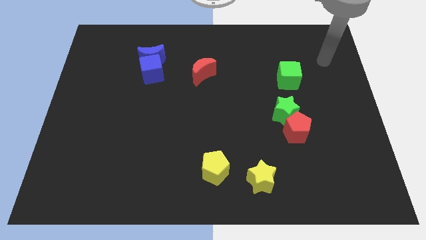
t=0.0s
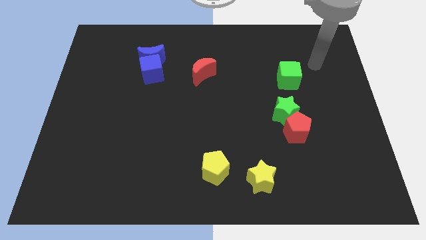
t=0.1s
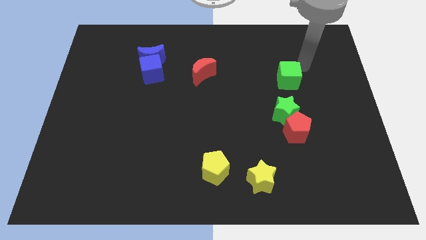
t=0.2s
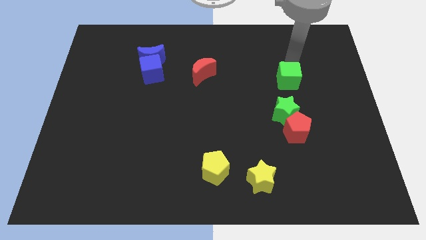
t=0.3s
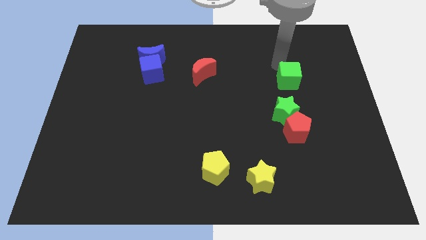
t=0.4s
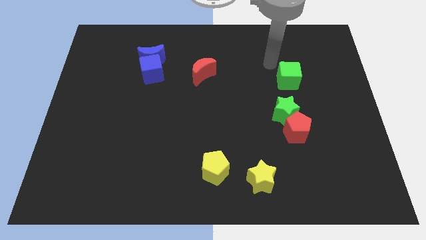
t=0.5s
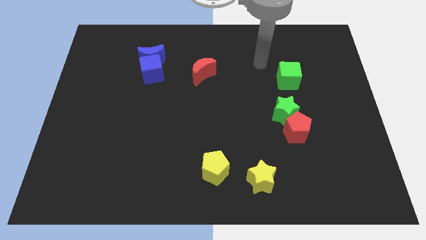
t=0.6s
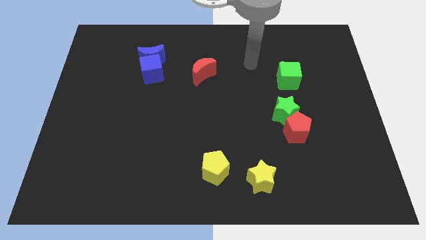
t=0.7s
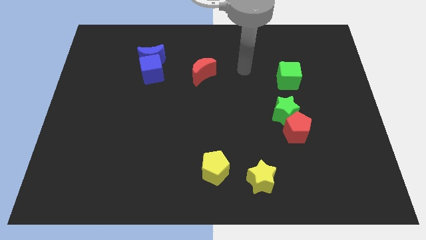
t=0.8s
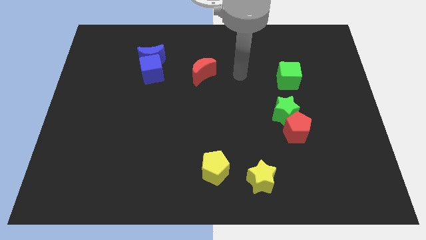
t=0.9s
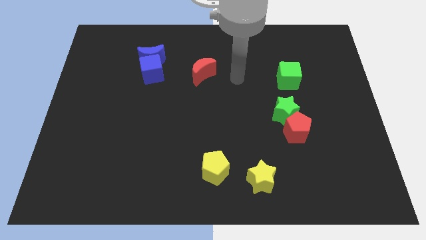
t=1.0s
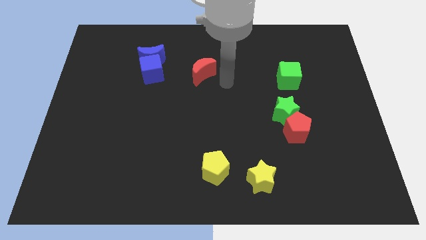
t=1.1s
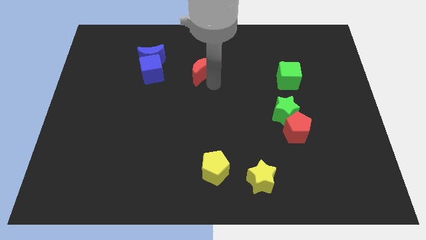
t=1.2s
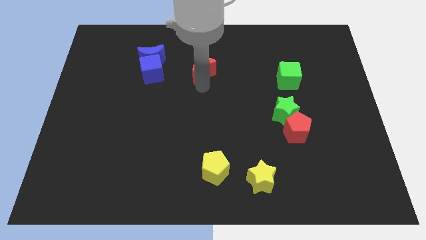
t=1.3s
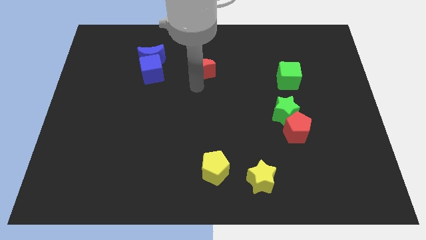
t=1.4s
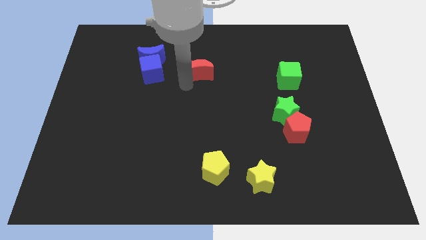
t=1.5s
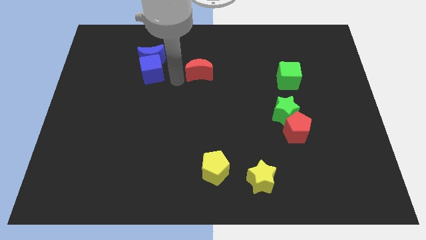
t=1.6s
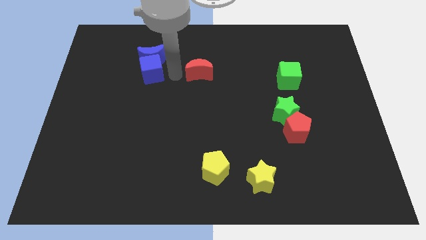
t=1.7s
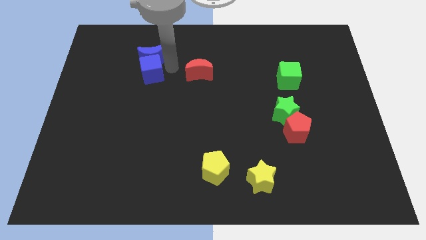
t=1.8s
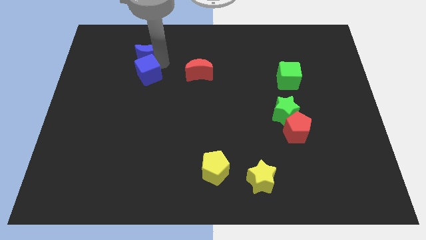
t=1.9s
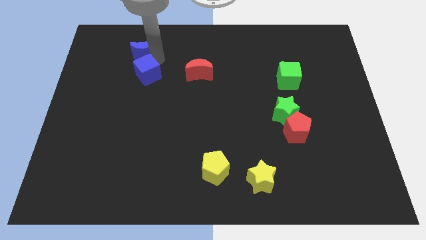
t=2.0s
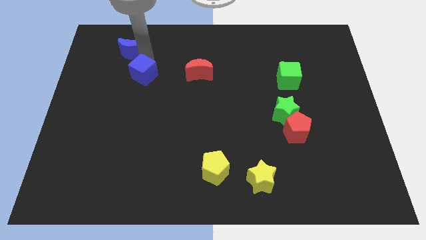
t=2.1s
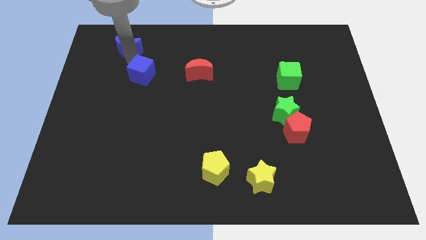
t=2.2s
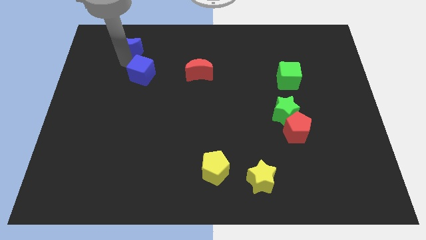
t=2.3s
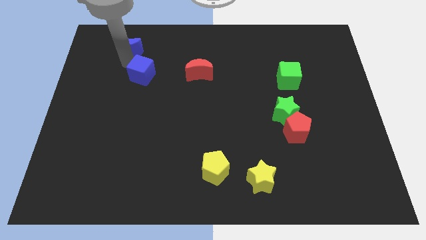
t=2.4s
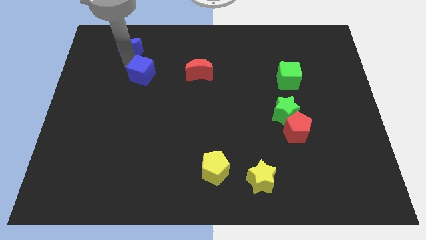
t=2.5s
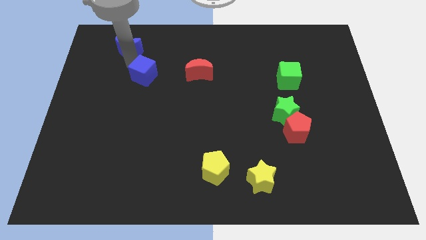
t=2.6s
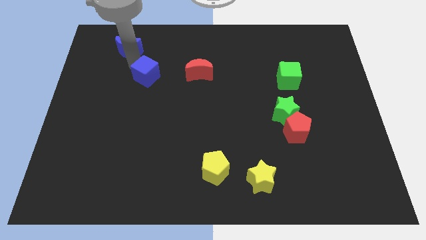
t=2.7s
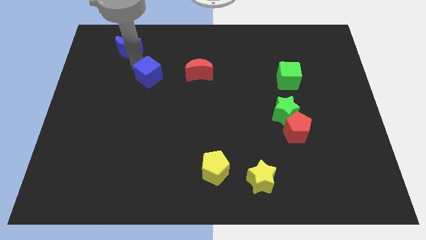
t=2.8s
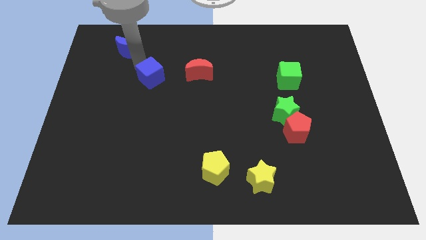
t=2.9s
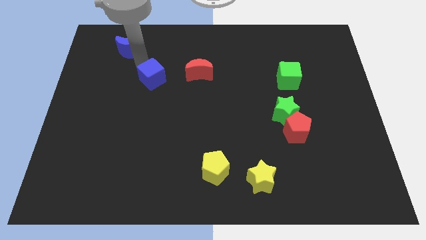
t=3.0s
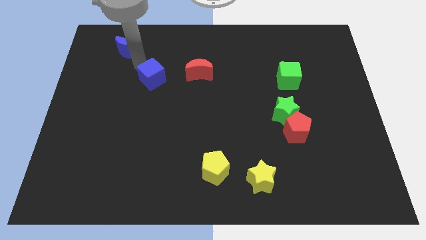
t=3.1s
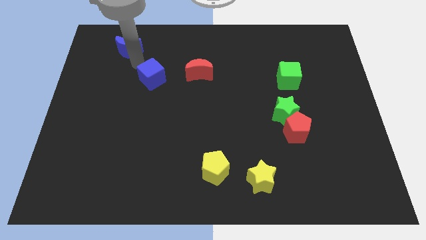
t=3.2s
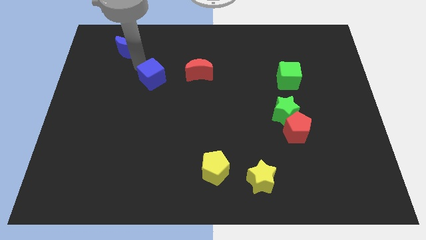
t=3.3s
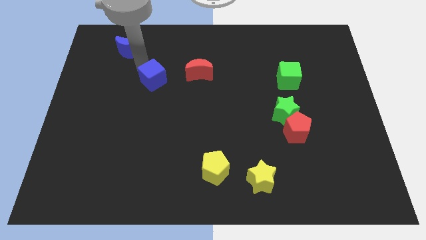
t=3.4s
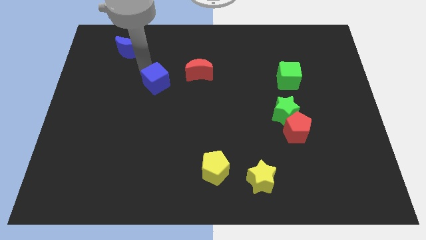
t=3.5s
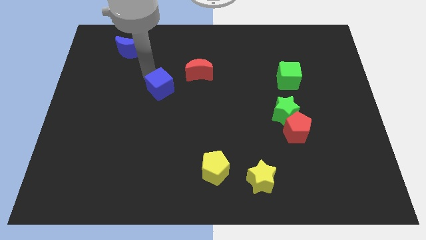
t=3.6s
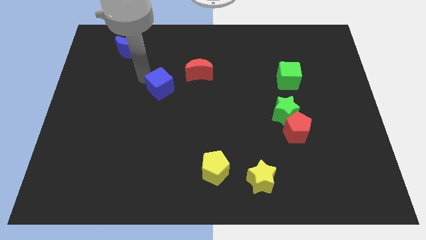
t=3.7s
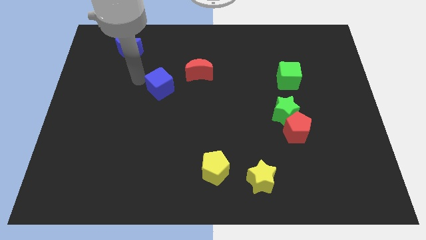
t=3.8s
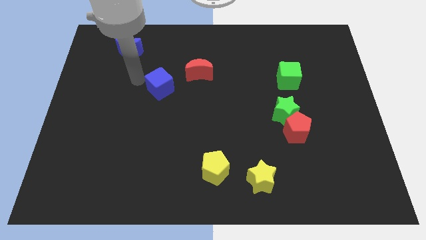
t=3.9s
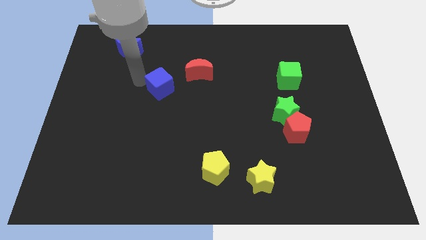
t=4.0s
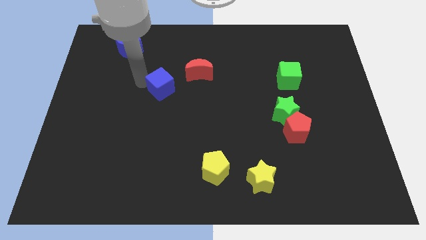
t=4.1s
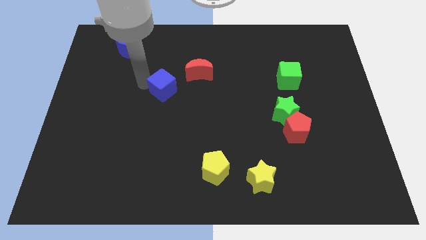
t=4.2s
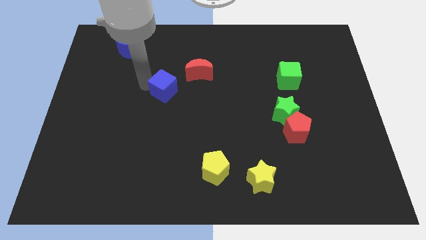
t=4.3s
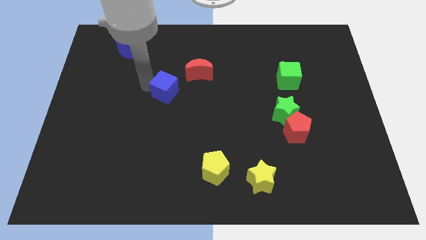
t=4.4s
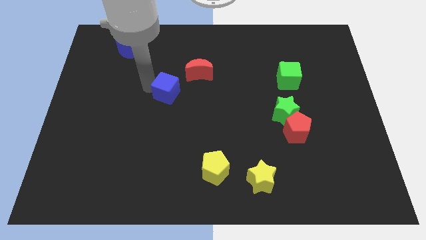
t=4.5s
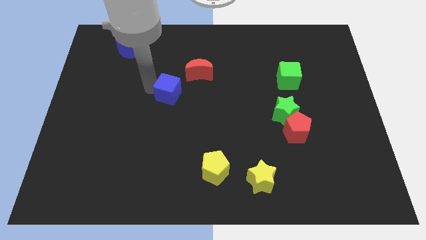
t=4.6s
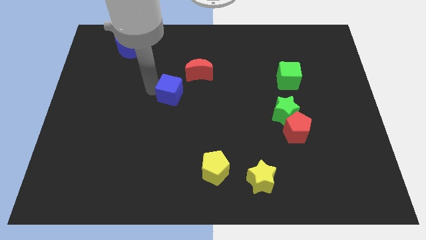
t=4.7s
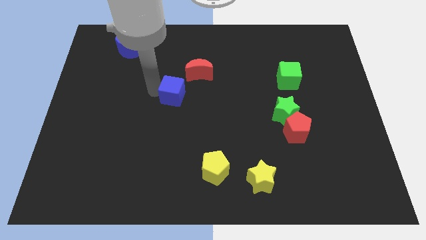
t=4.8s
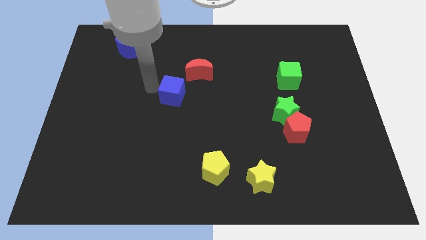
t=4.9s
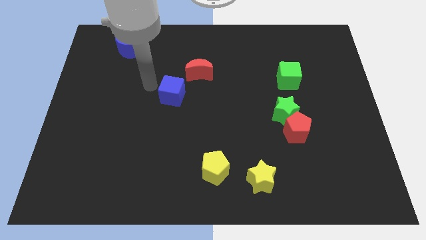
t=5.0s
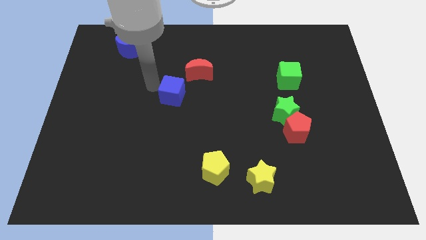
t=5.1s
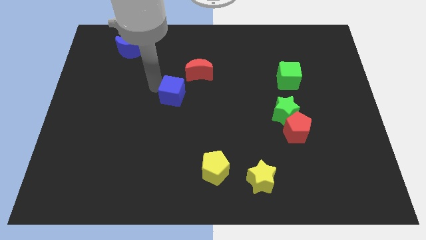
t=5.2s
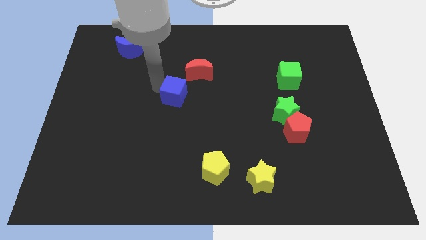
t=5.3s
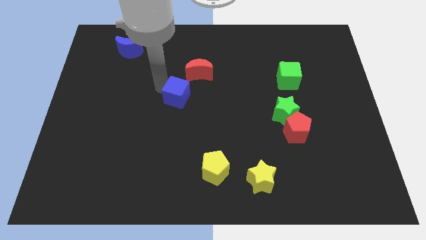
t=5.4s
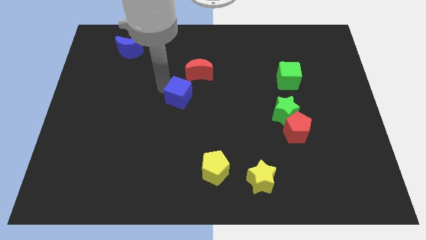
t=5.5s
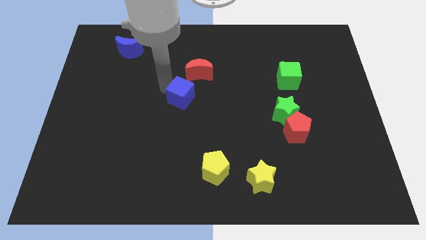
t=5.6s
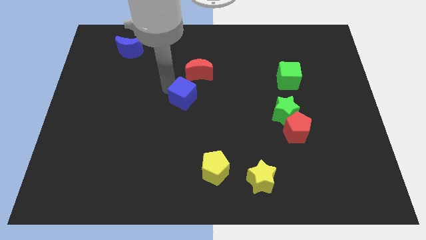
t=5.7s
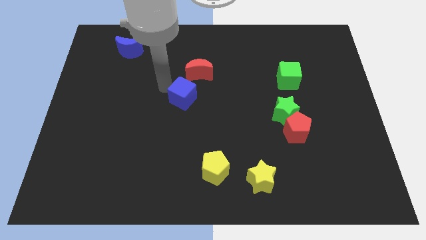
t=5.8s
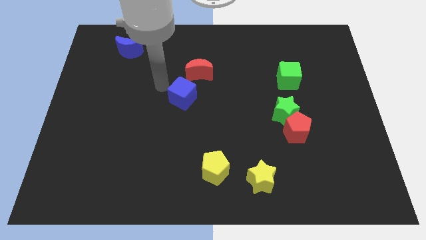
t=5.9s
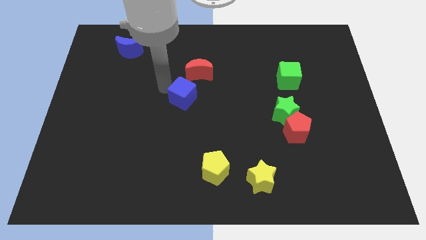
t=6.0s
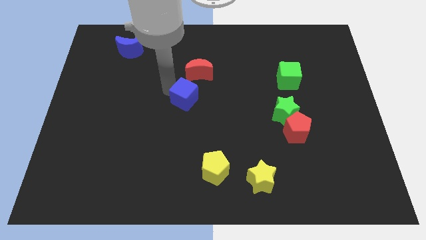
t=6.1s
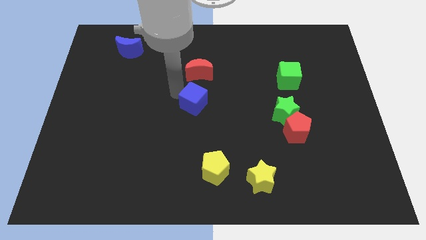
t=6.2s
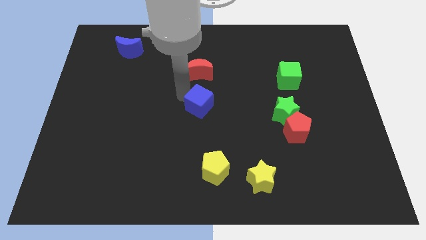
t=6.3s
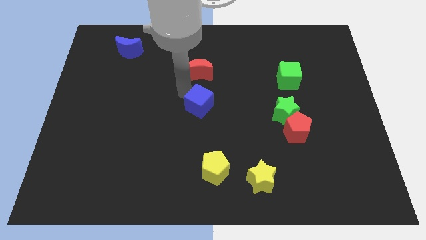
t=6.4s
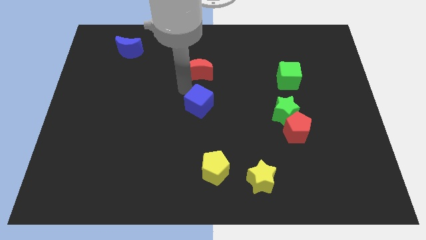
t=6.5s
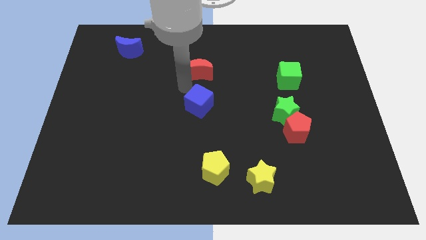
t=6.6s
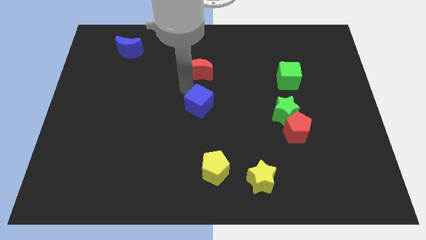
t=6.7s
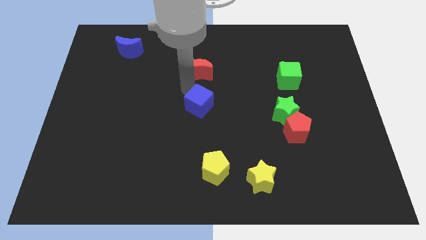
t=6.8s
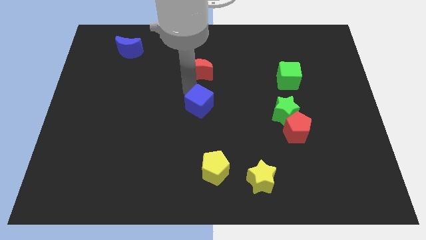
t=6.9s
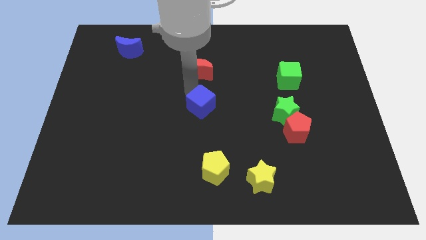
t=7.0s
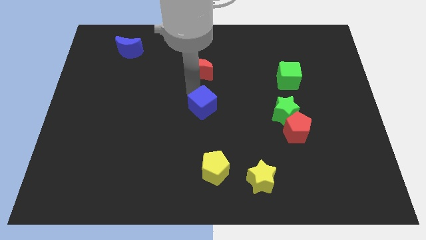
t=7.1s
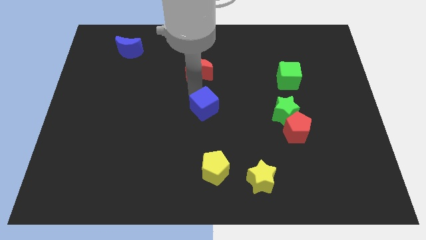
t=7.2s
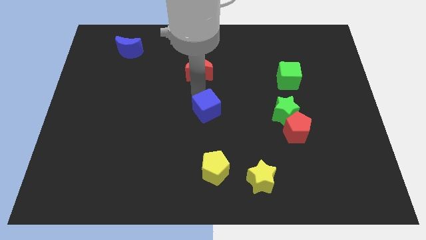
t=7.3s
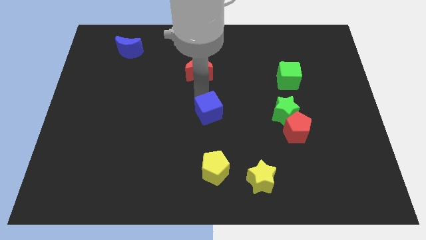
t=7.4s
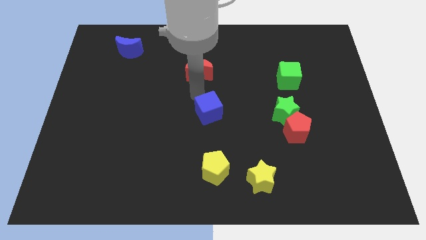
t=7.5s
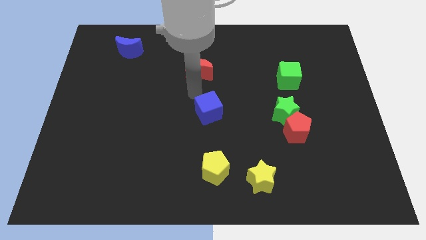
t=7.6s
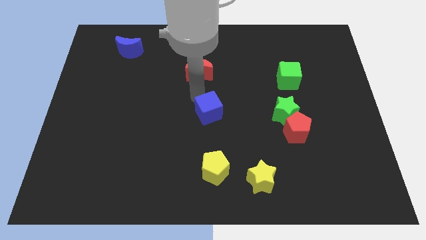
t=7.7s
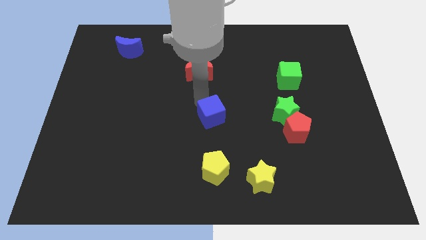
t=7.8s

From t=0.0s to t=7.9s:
slide the blue cube downwards and then to the right
